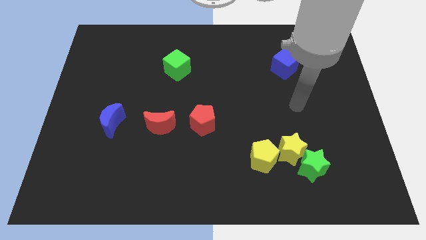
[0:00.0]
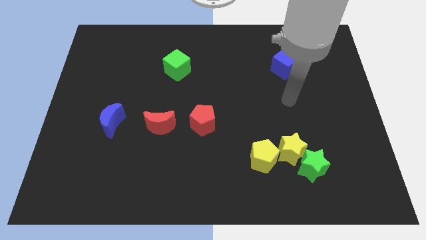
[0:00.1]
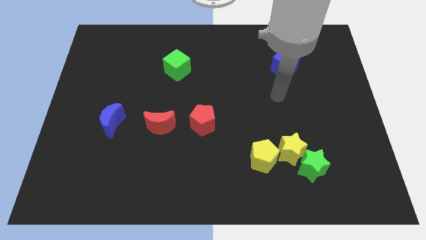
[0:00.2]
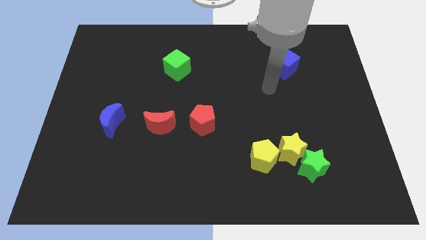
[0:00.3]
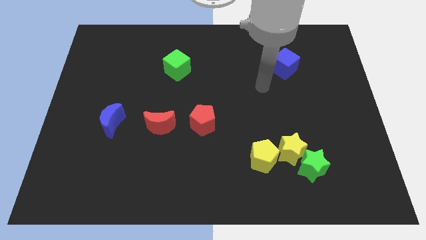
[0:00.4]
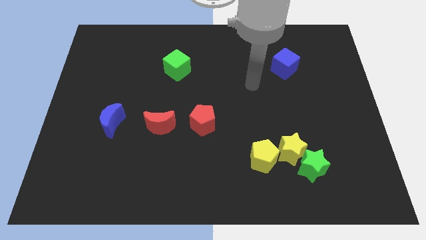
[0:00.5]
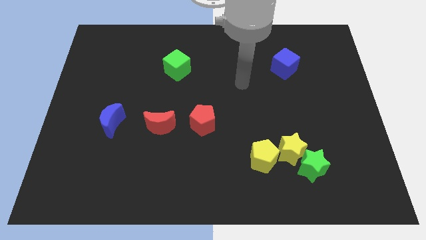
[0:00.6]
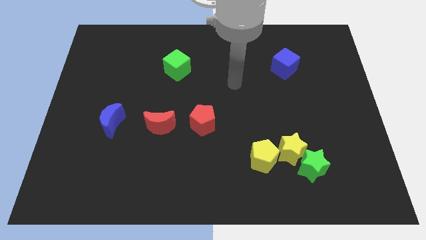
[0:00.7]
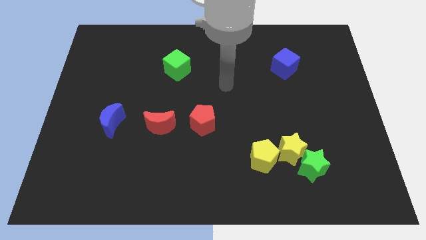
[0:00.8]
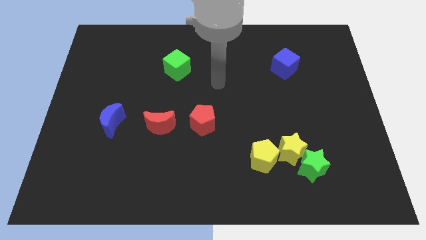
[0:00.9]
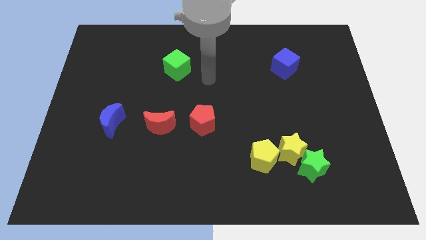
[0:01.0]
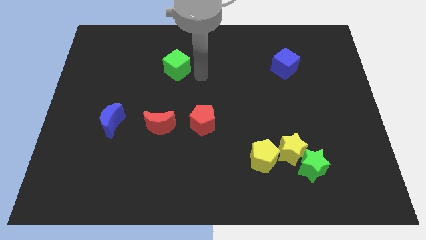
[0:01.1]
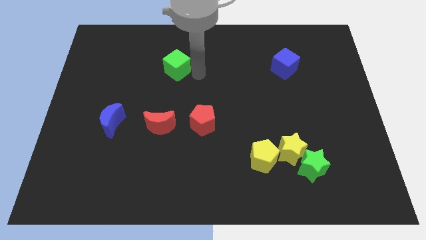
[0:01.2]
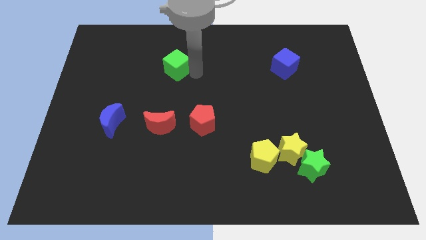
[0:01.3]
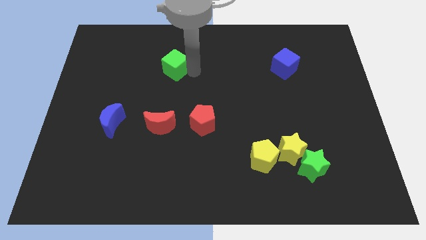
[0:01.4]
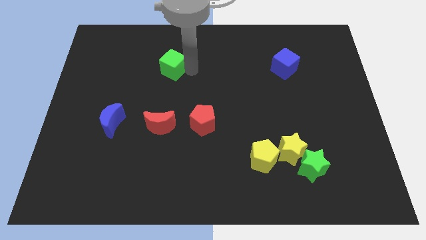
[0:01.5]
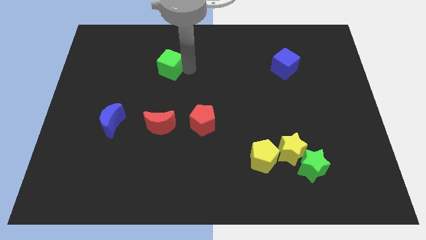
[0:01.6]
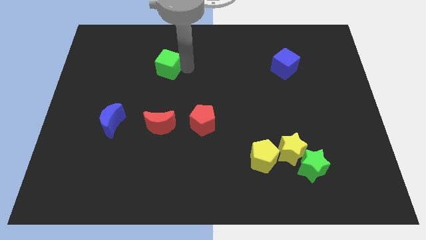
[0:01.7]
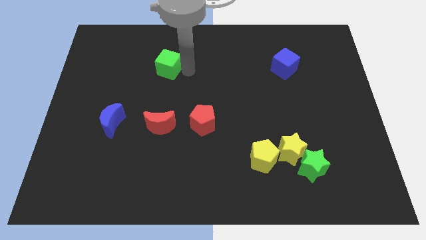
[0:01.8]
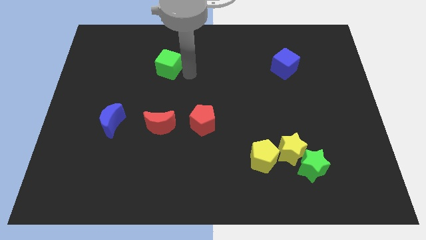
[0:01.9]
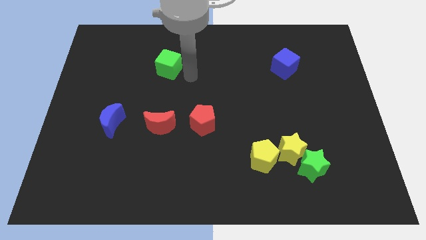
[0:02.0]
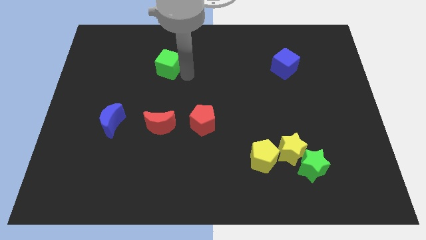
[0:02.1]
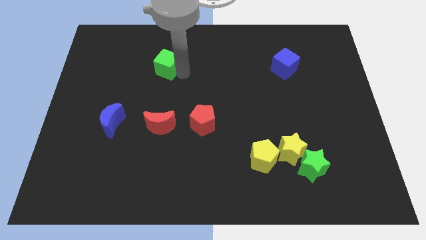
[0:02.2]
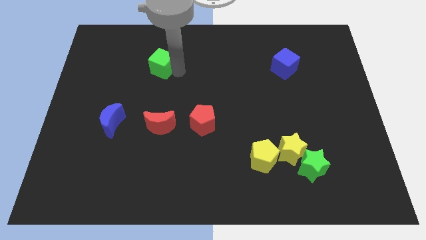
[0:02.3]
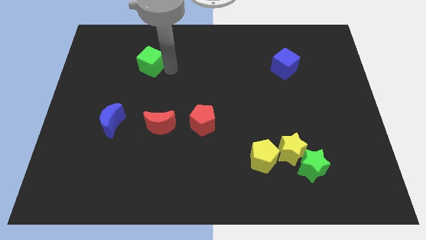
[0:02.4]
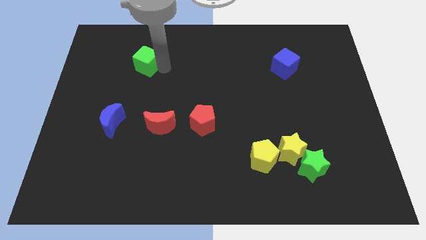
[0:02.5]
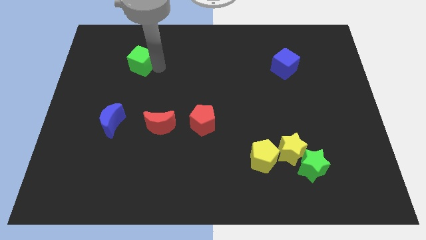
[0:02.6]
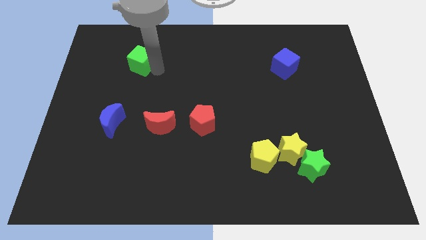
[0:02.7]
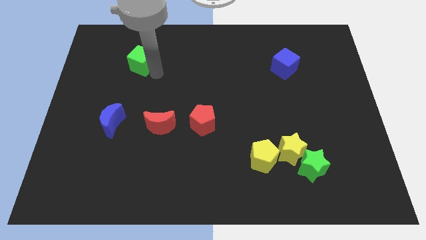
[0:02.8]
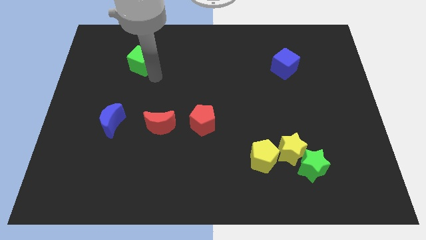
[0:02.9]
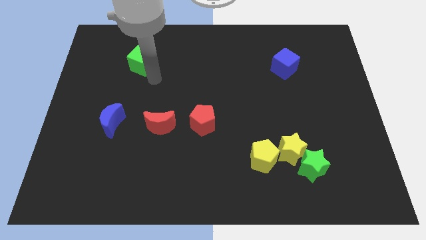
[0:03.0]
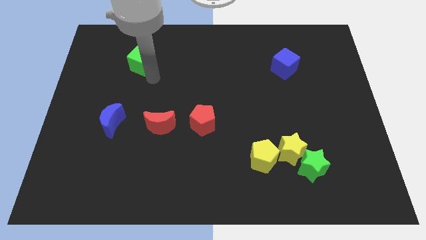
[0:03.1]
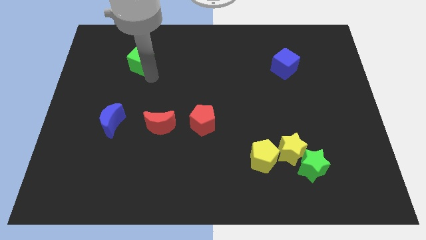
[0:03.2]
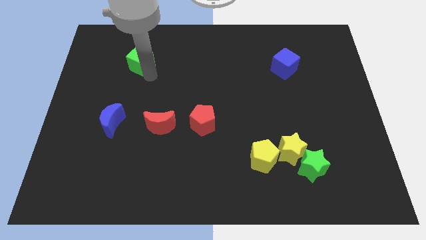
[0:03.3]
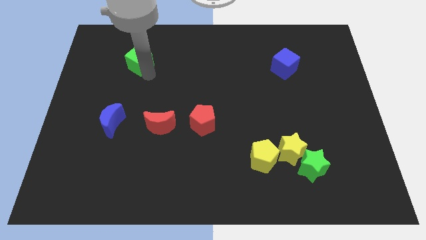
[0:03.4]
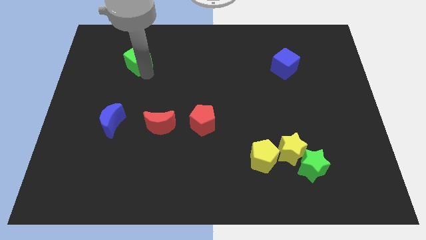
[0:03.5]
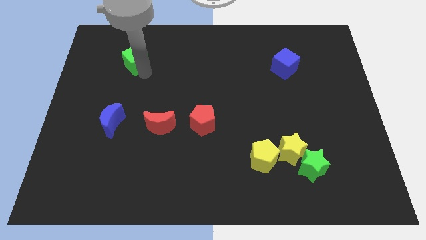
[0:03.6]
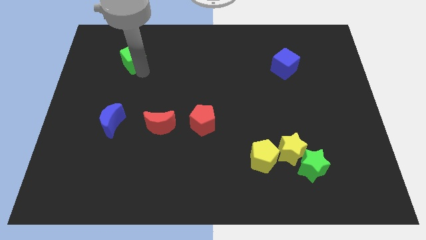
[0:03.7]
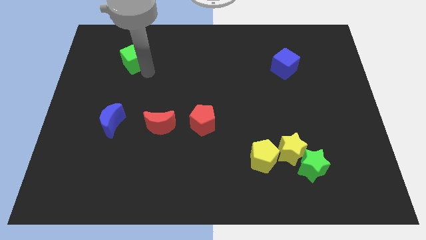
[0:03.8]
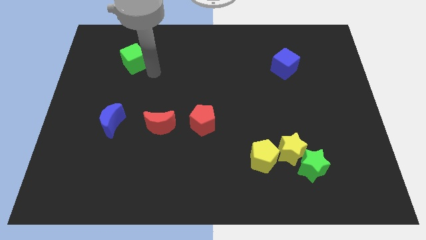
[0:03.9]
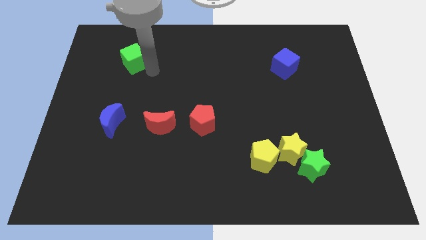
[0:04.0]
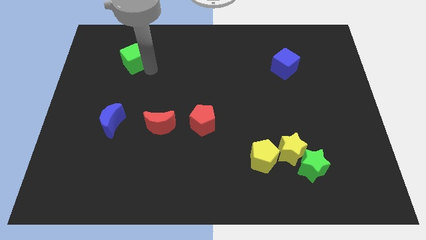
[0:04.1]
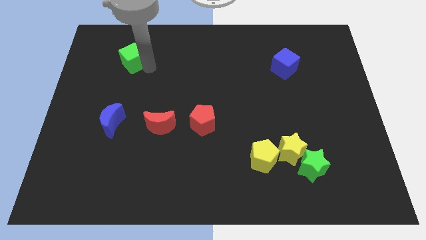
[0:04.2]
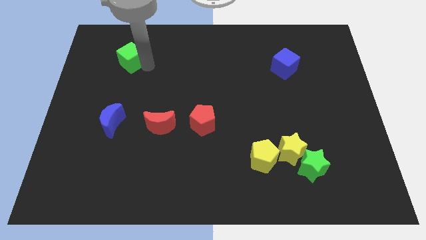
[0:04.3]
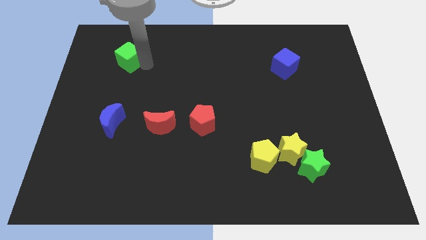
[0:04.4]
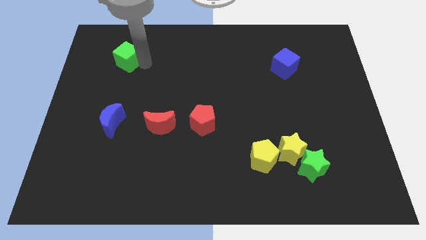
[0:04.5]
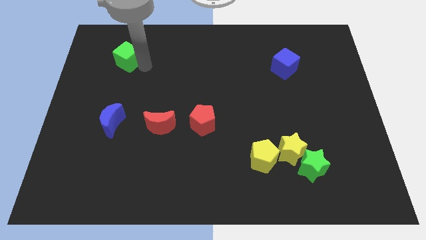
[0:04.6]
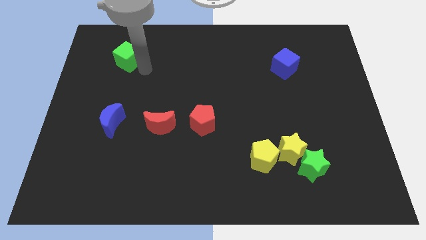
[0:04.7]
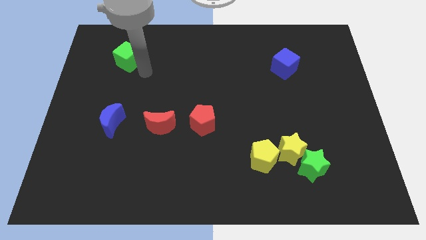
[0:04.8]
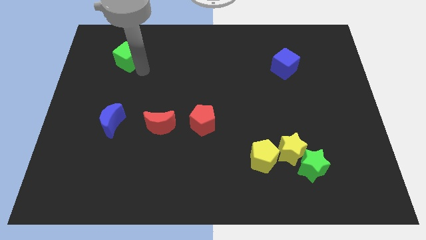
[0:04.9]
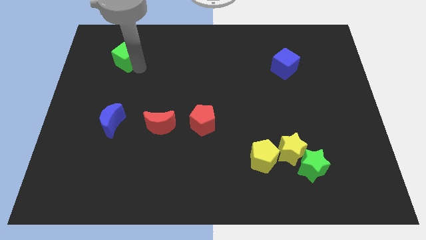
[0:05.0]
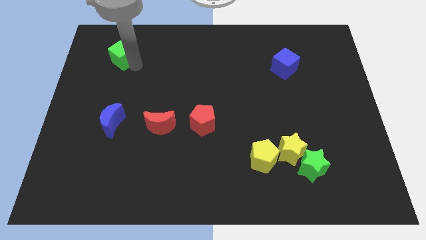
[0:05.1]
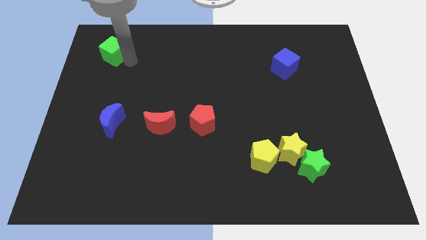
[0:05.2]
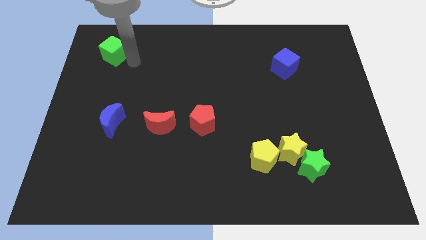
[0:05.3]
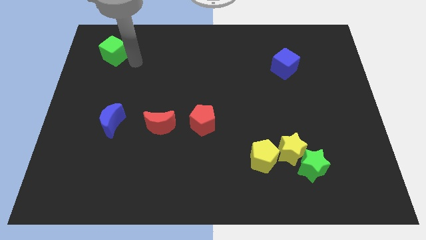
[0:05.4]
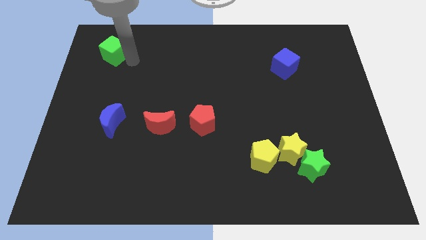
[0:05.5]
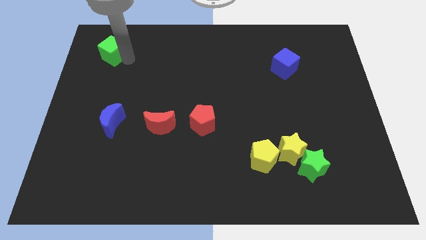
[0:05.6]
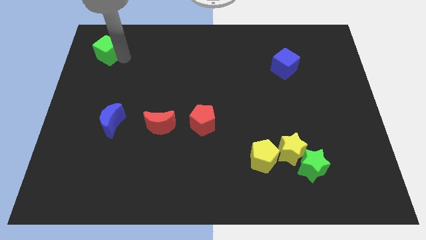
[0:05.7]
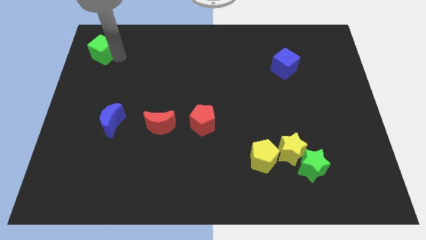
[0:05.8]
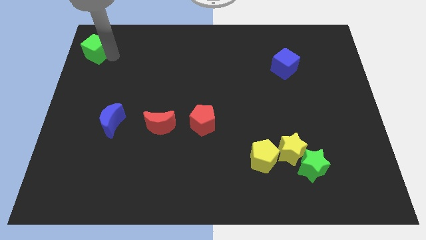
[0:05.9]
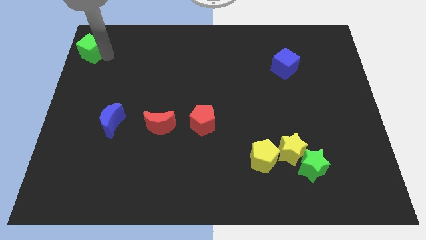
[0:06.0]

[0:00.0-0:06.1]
move the green cube to the upper left corner

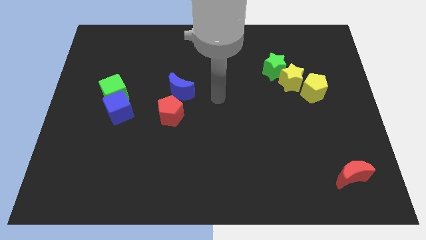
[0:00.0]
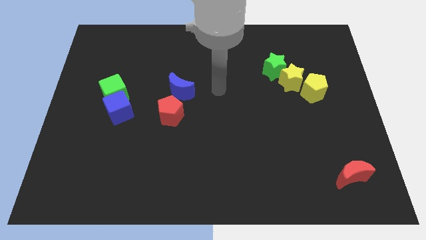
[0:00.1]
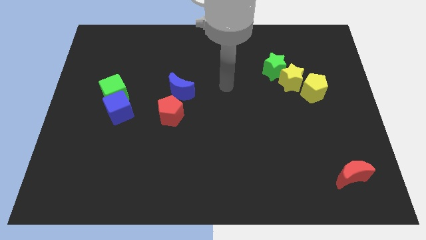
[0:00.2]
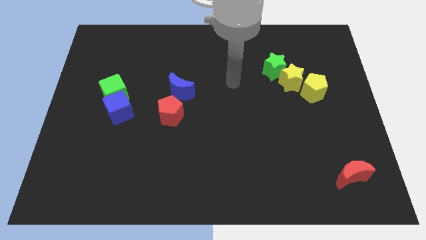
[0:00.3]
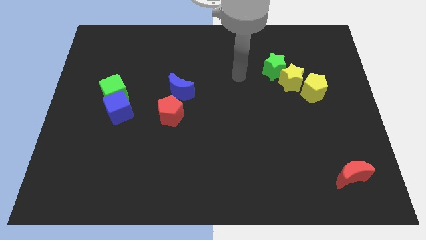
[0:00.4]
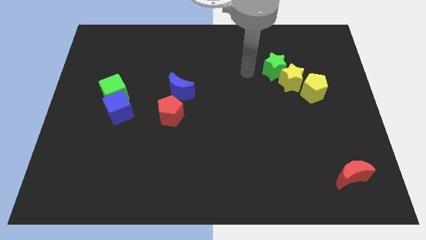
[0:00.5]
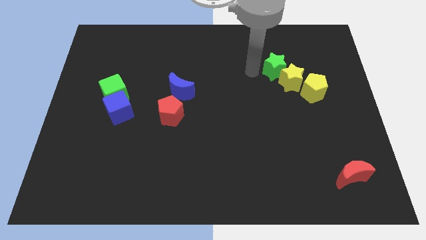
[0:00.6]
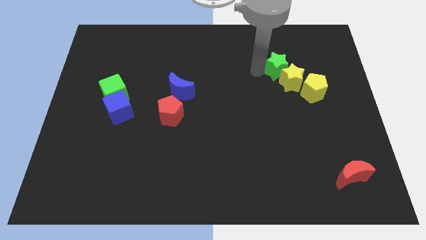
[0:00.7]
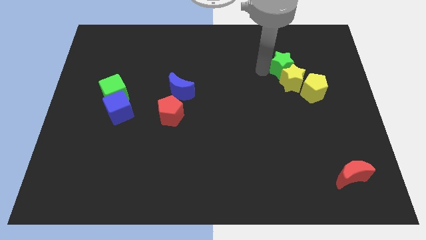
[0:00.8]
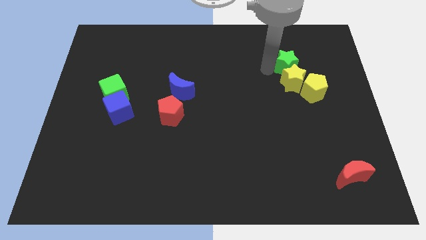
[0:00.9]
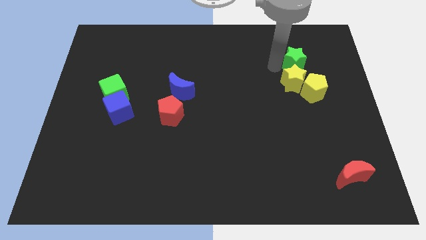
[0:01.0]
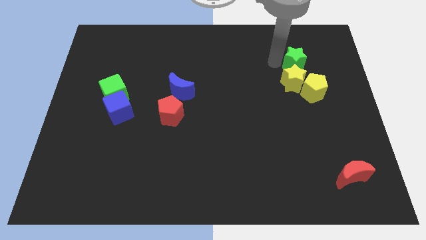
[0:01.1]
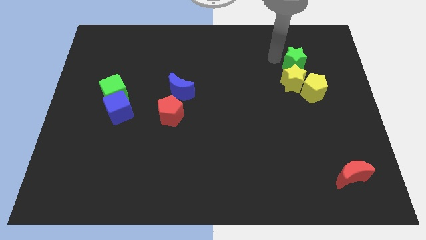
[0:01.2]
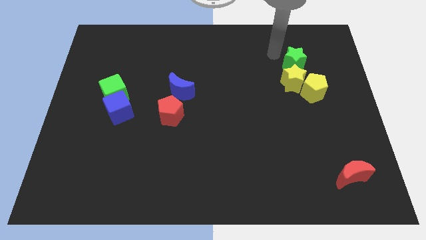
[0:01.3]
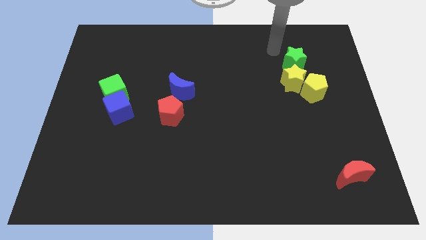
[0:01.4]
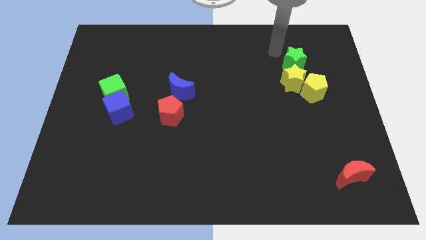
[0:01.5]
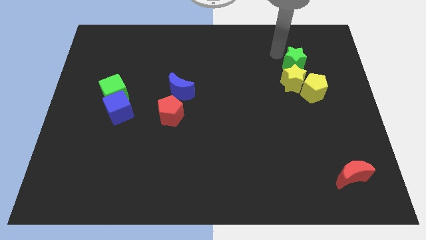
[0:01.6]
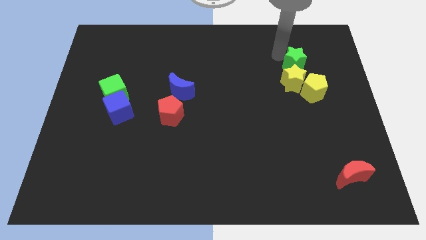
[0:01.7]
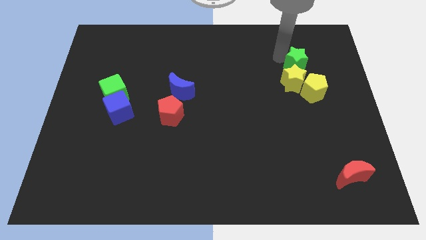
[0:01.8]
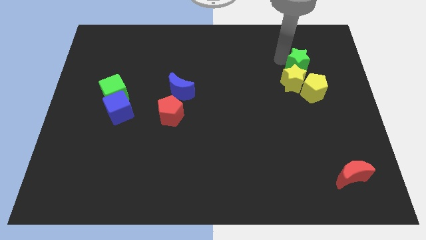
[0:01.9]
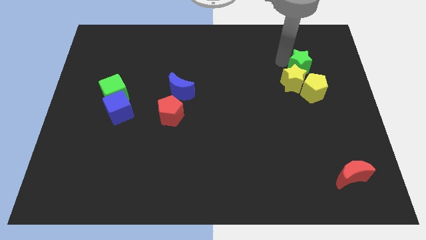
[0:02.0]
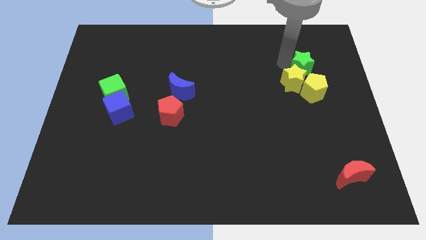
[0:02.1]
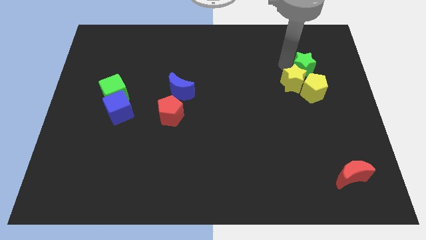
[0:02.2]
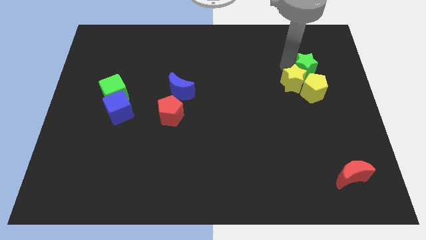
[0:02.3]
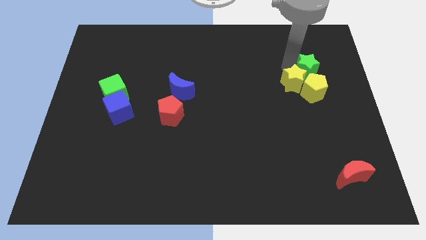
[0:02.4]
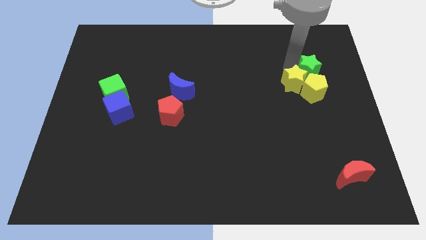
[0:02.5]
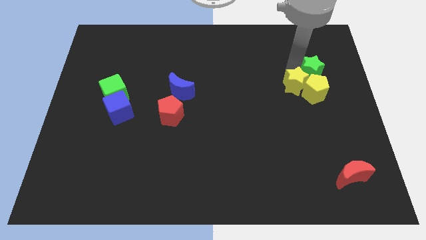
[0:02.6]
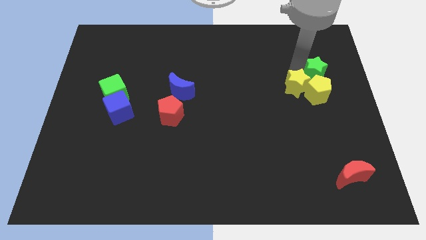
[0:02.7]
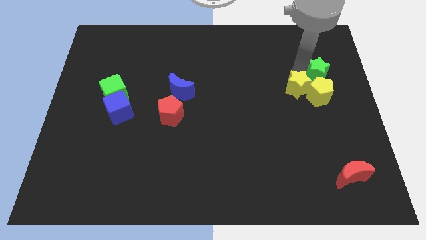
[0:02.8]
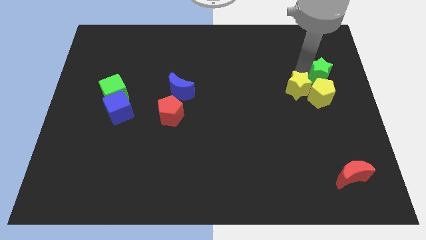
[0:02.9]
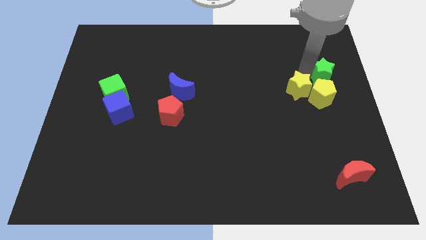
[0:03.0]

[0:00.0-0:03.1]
put the green star to the right side
